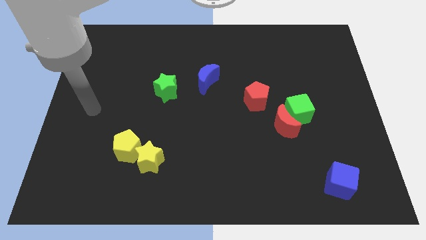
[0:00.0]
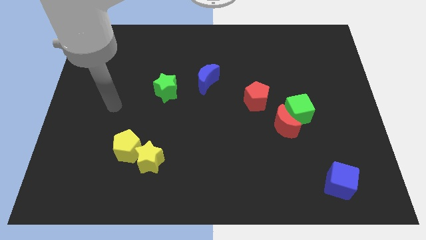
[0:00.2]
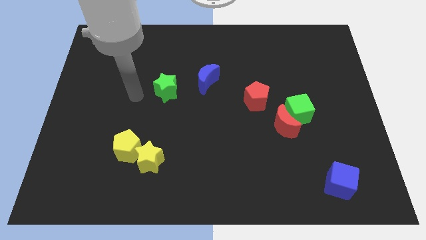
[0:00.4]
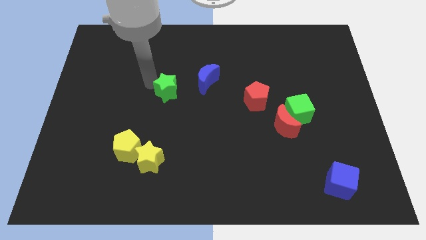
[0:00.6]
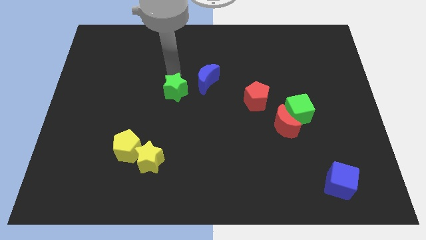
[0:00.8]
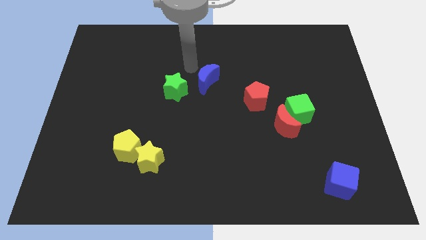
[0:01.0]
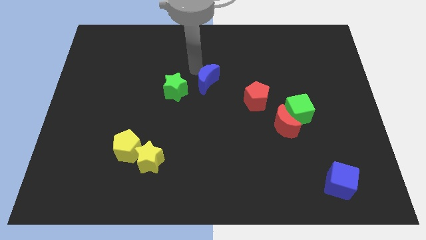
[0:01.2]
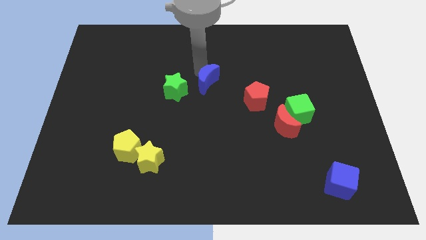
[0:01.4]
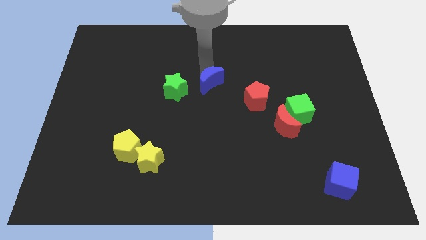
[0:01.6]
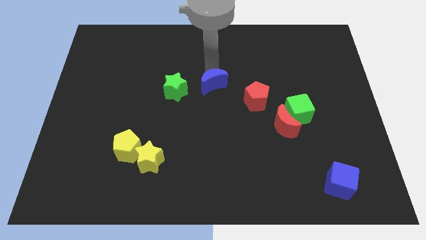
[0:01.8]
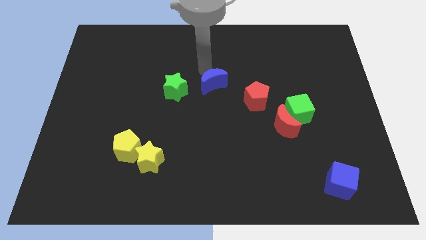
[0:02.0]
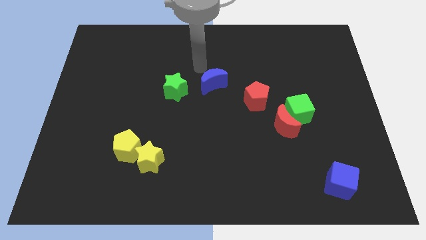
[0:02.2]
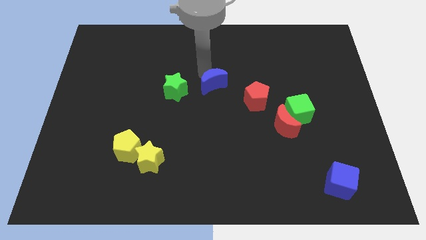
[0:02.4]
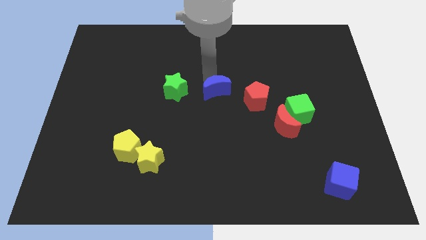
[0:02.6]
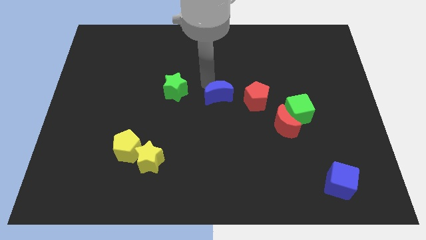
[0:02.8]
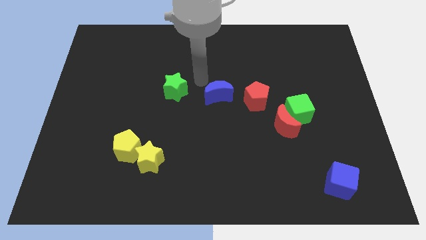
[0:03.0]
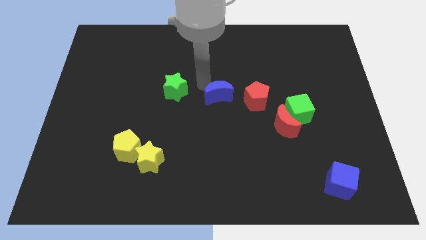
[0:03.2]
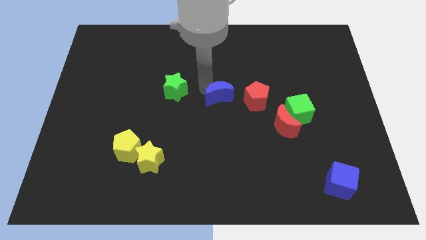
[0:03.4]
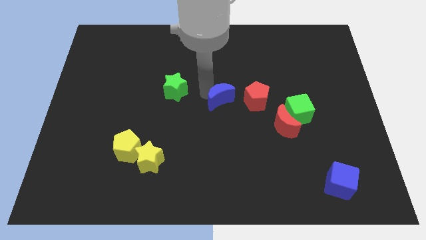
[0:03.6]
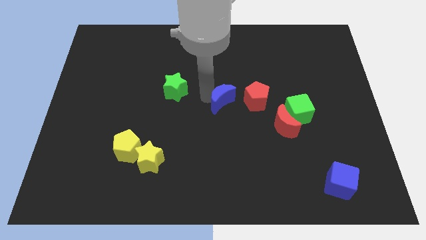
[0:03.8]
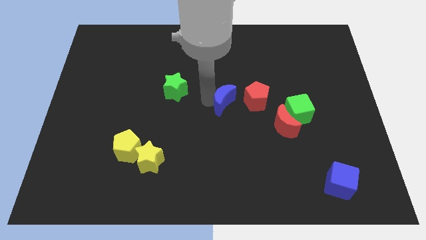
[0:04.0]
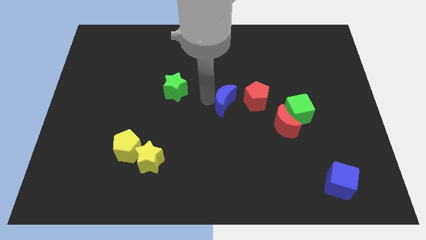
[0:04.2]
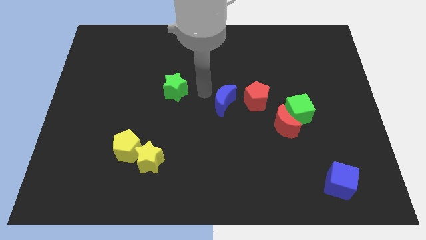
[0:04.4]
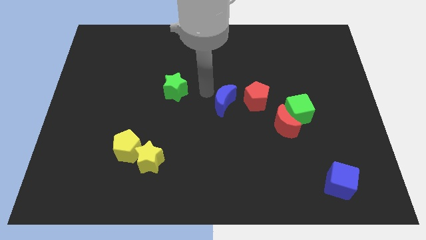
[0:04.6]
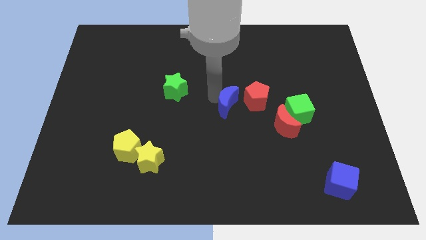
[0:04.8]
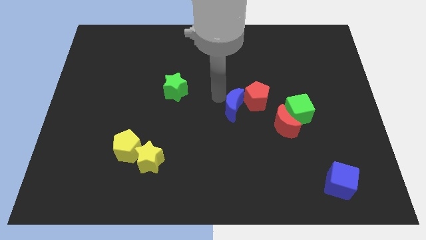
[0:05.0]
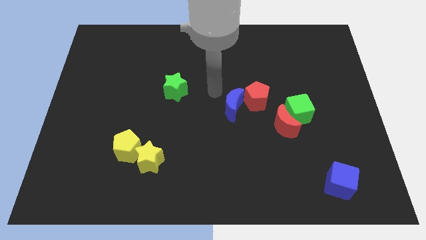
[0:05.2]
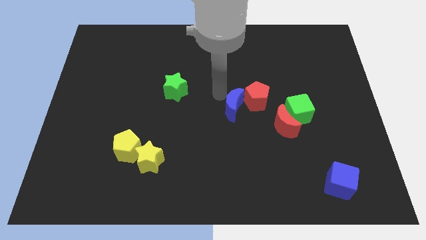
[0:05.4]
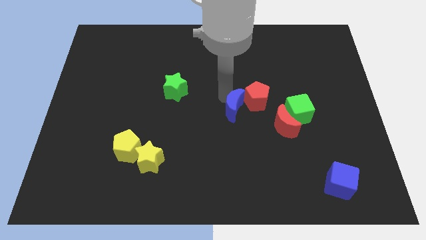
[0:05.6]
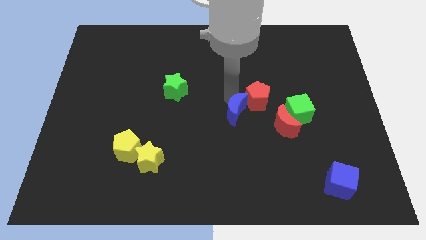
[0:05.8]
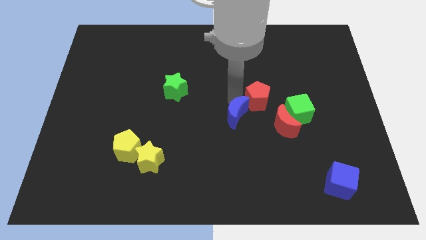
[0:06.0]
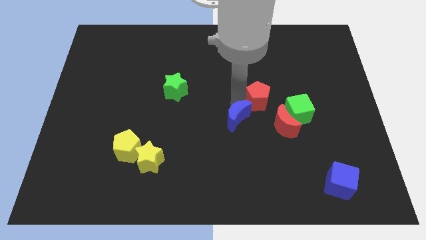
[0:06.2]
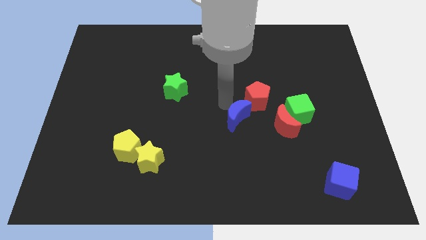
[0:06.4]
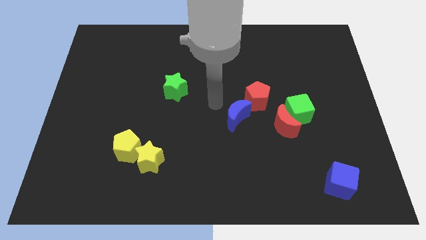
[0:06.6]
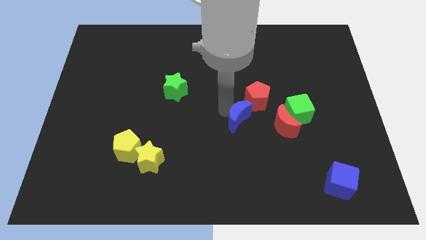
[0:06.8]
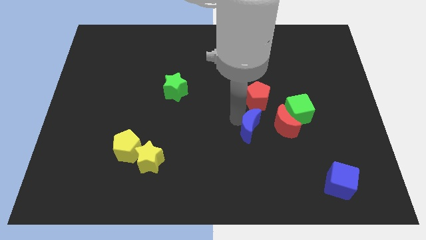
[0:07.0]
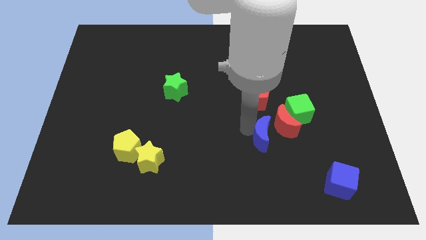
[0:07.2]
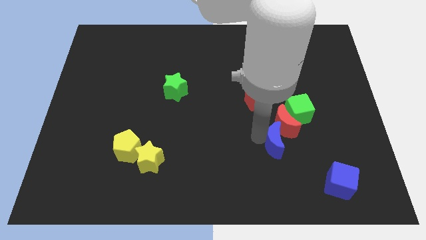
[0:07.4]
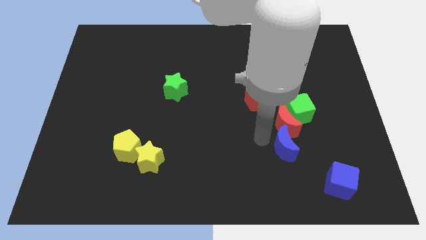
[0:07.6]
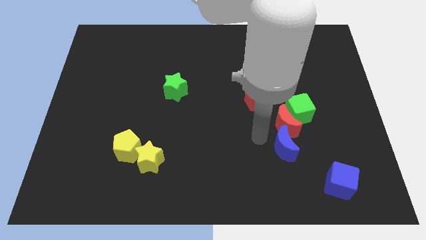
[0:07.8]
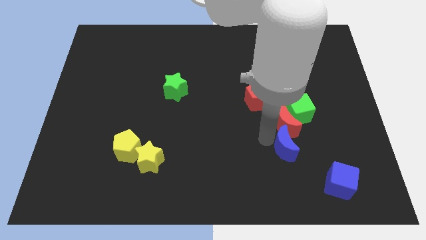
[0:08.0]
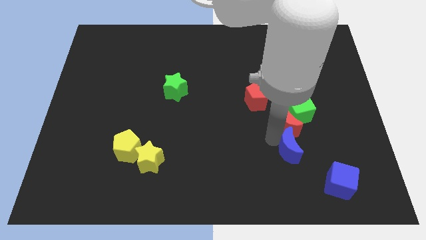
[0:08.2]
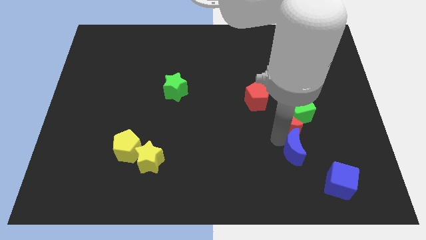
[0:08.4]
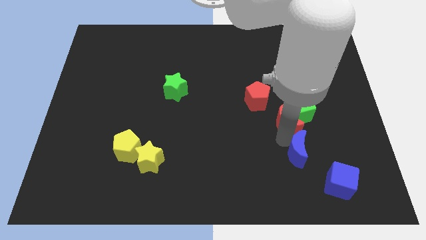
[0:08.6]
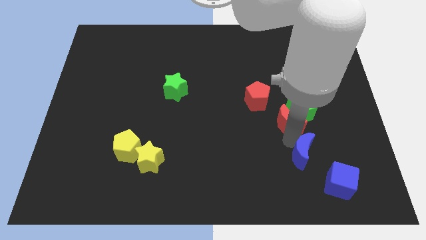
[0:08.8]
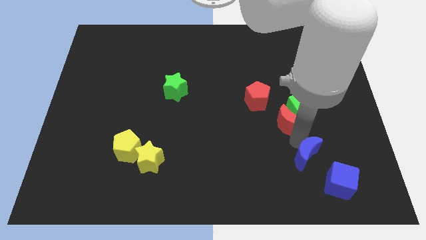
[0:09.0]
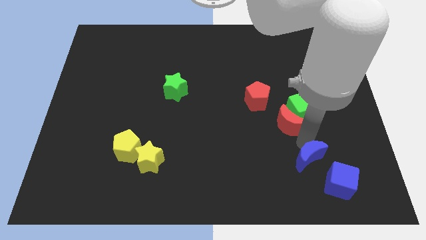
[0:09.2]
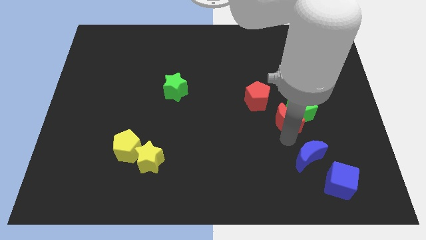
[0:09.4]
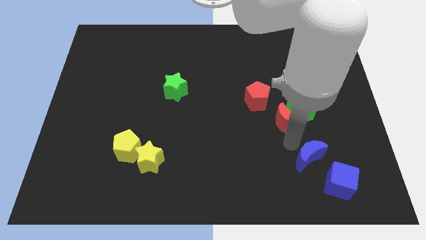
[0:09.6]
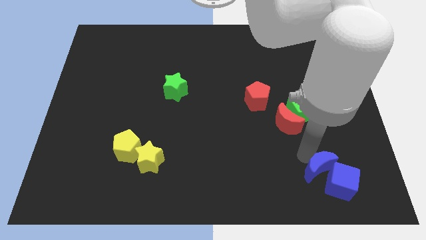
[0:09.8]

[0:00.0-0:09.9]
slide the blue moon next to the blue cube

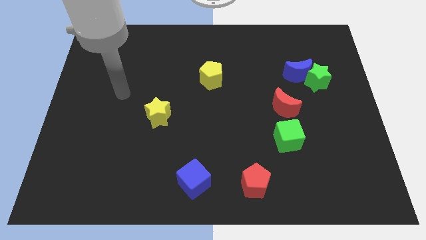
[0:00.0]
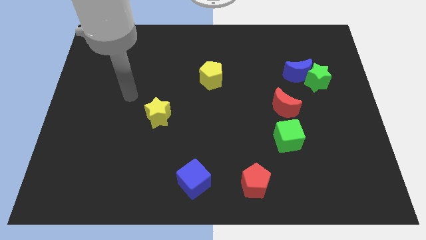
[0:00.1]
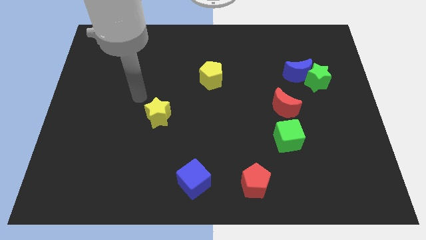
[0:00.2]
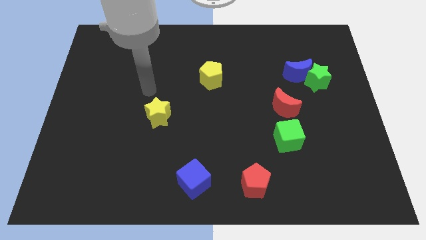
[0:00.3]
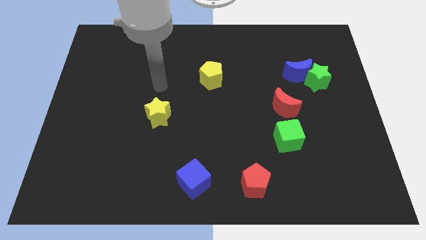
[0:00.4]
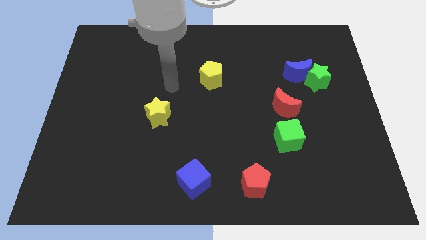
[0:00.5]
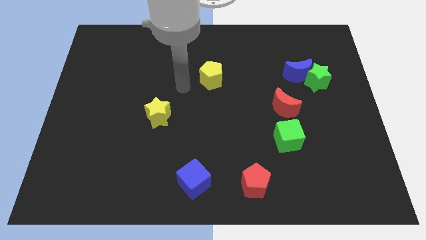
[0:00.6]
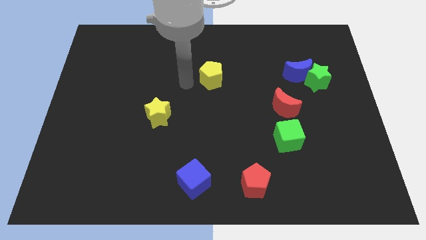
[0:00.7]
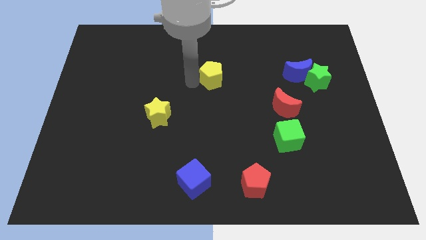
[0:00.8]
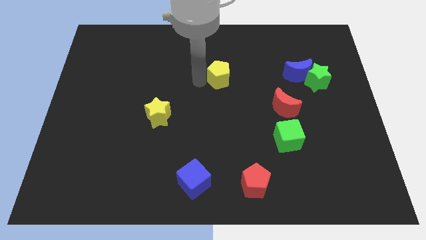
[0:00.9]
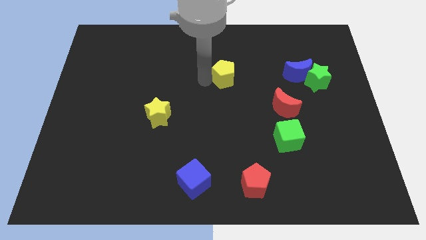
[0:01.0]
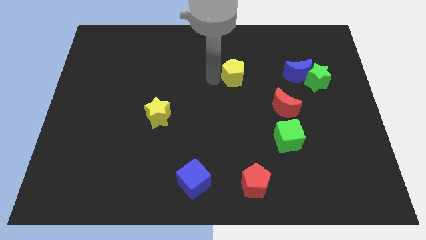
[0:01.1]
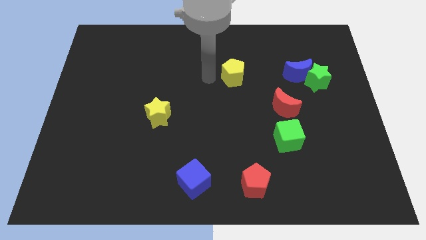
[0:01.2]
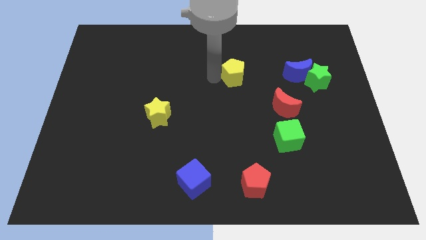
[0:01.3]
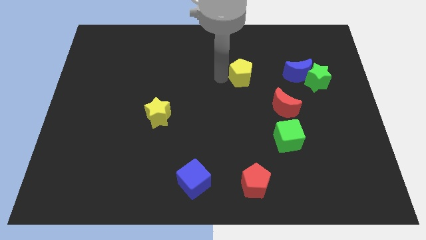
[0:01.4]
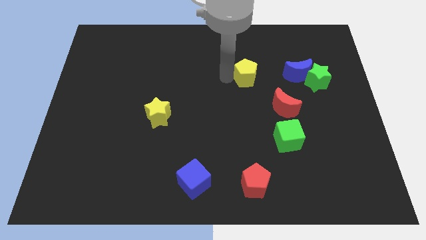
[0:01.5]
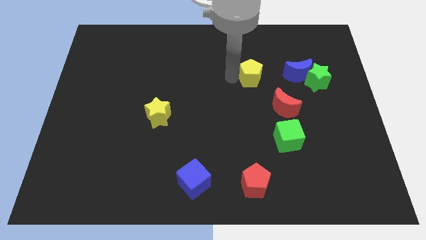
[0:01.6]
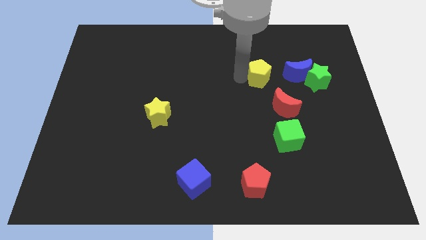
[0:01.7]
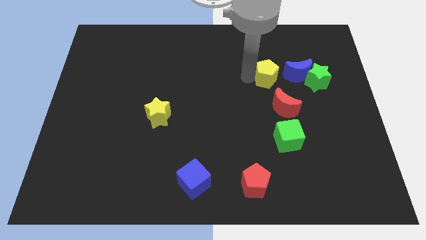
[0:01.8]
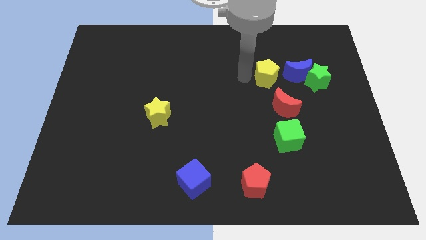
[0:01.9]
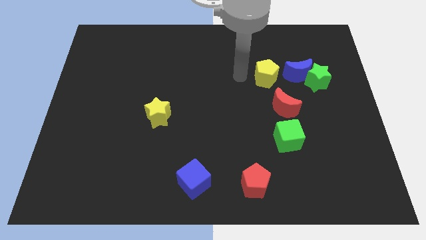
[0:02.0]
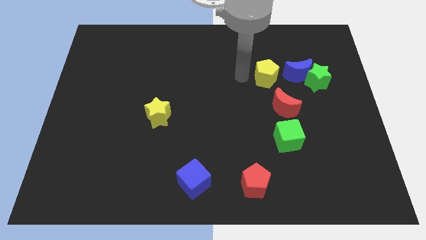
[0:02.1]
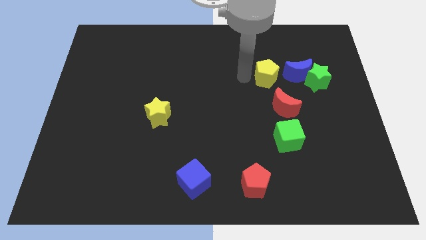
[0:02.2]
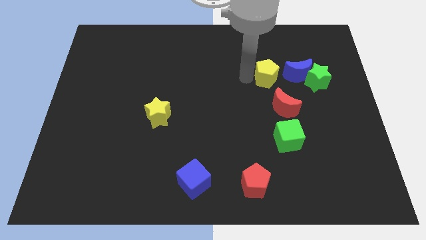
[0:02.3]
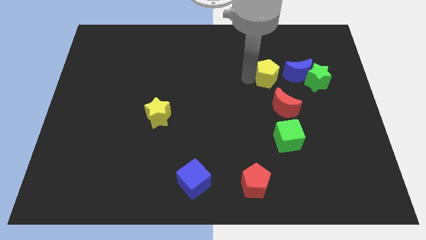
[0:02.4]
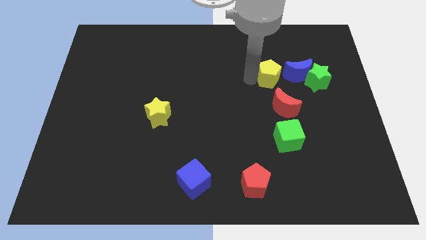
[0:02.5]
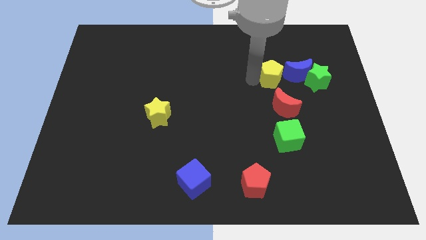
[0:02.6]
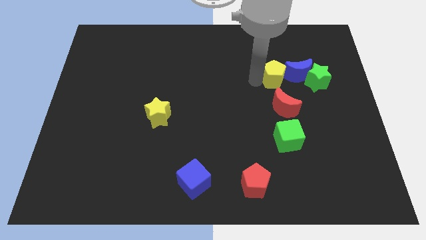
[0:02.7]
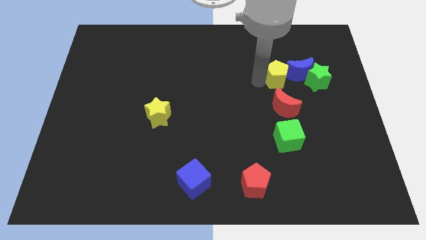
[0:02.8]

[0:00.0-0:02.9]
move the yellow pentagon towards the blue moon

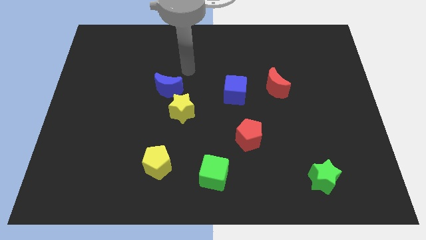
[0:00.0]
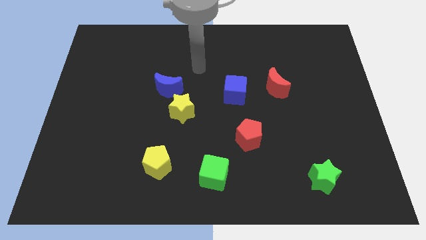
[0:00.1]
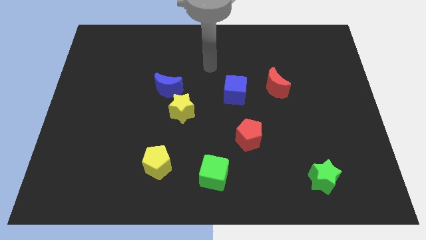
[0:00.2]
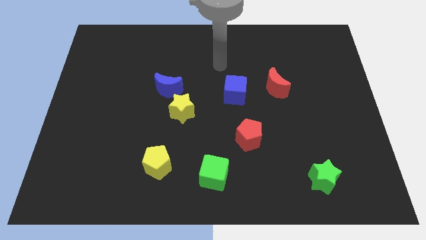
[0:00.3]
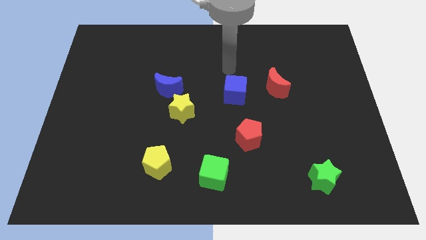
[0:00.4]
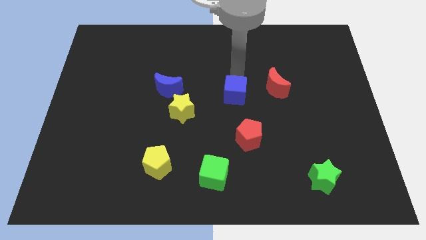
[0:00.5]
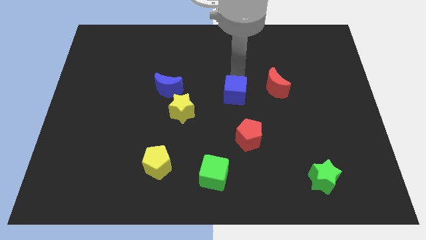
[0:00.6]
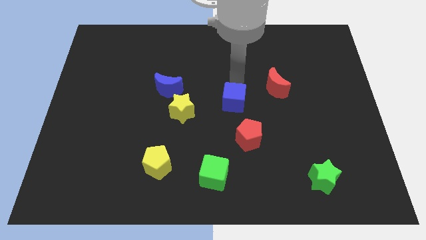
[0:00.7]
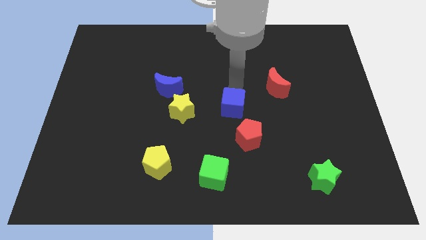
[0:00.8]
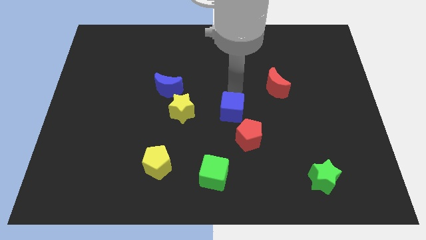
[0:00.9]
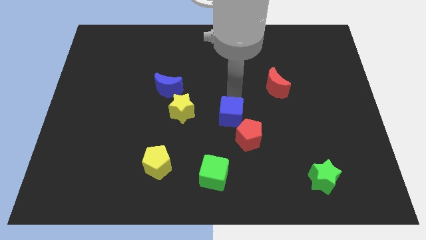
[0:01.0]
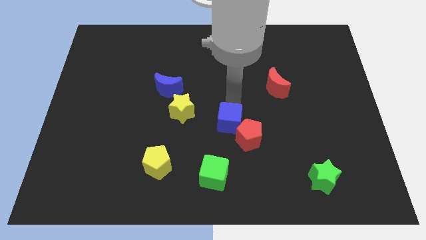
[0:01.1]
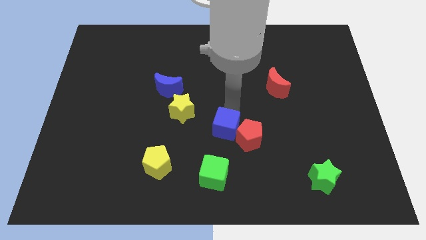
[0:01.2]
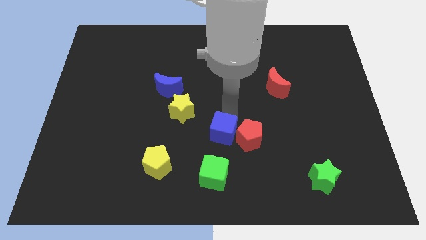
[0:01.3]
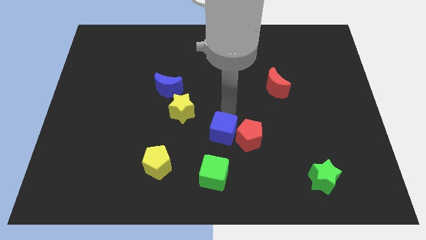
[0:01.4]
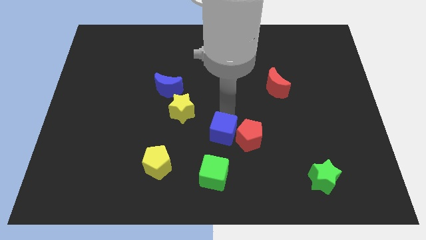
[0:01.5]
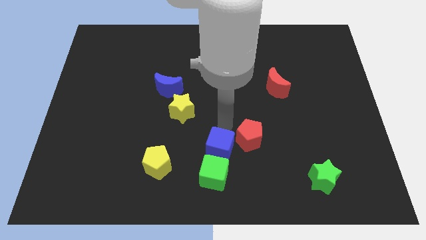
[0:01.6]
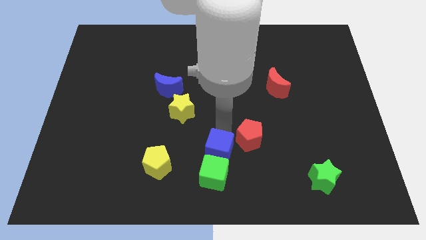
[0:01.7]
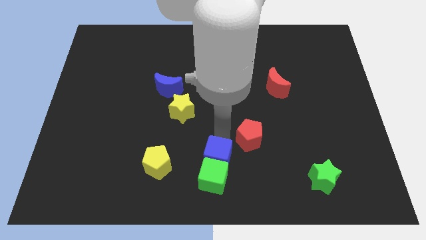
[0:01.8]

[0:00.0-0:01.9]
move the blue cube next to the green cube
